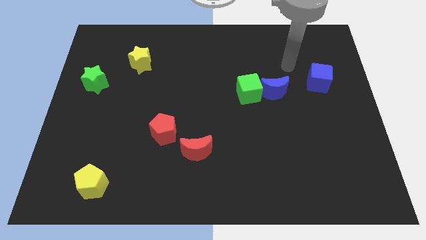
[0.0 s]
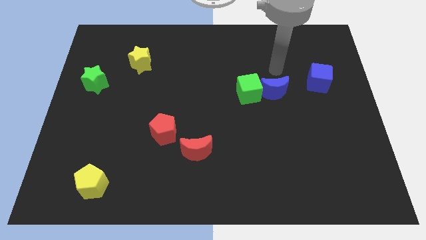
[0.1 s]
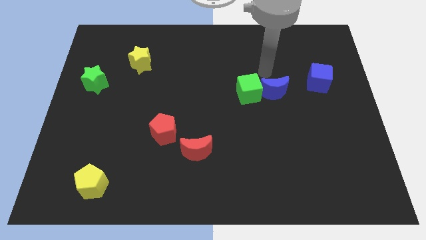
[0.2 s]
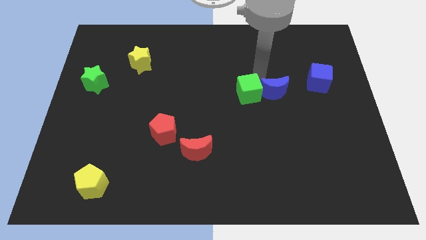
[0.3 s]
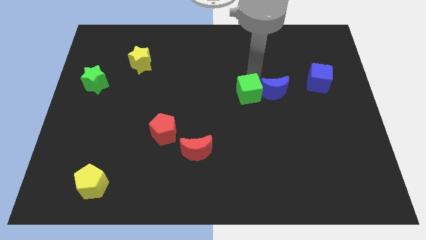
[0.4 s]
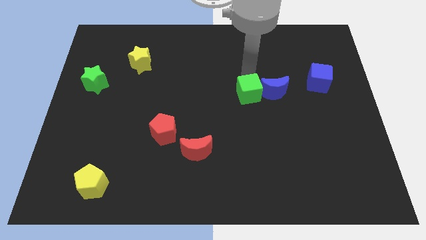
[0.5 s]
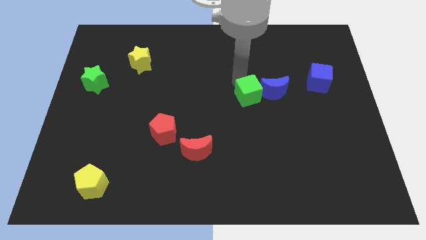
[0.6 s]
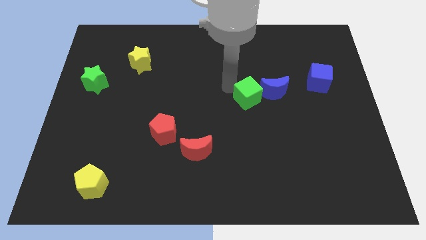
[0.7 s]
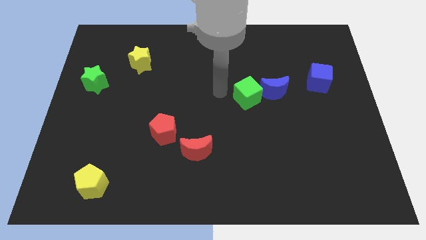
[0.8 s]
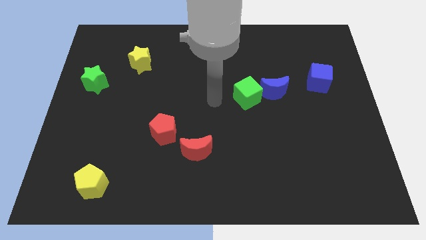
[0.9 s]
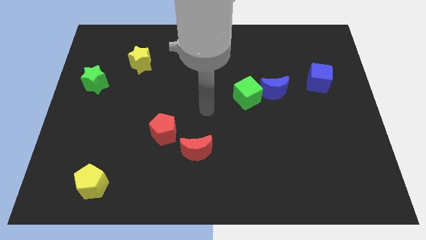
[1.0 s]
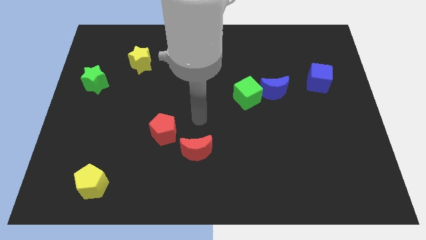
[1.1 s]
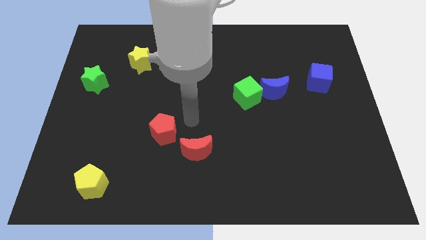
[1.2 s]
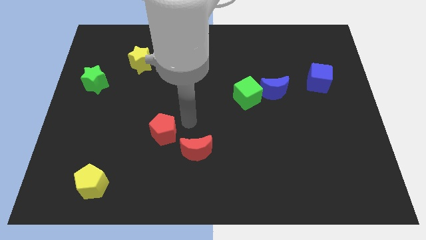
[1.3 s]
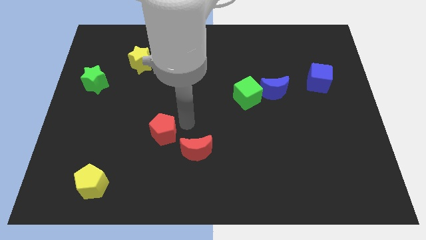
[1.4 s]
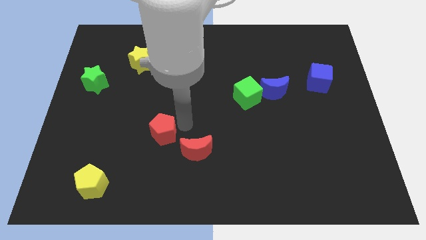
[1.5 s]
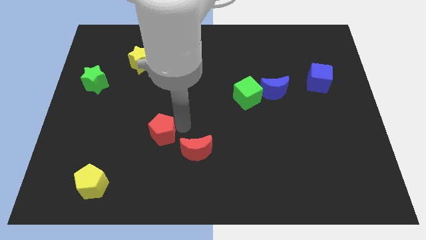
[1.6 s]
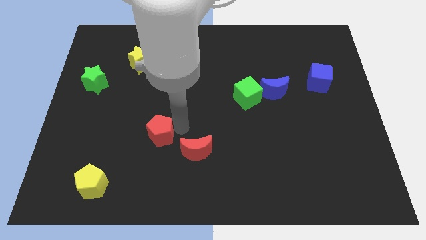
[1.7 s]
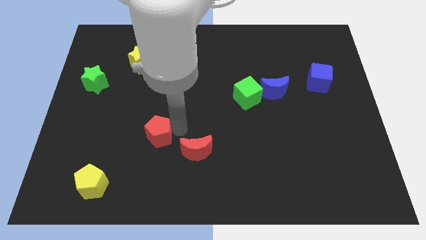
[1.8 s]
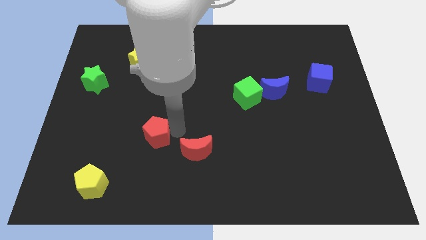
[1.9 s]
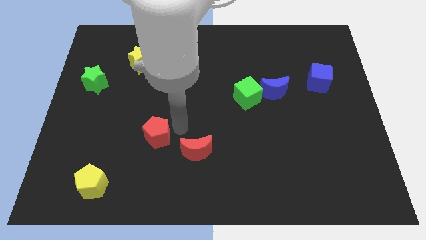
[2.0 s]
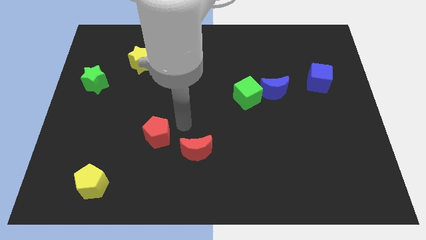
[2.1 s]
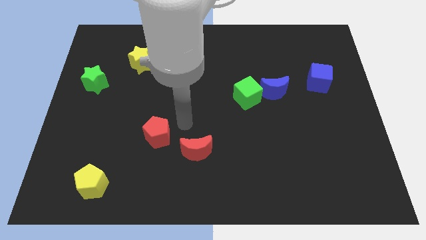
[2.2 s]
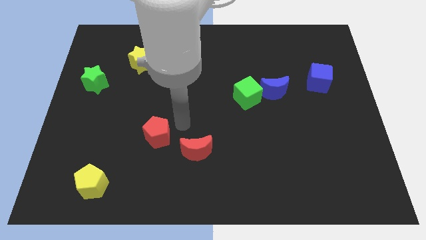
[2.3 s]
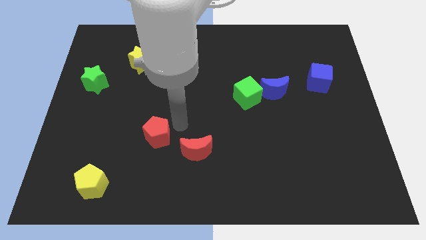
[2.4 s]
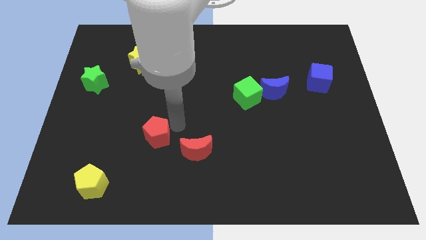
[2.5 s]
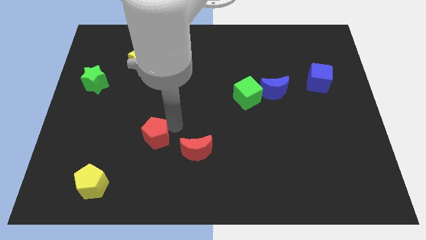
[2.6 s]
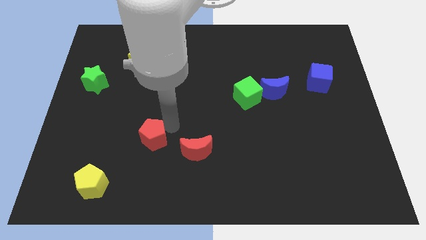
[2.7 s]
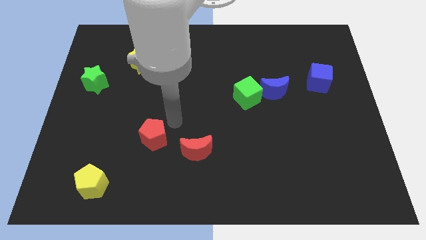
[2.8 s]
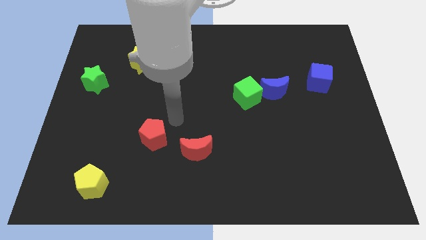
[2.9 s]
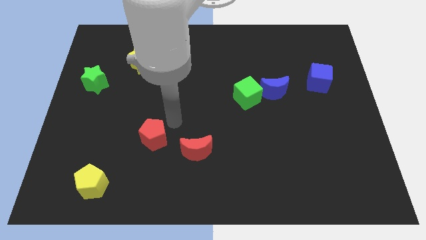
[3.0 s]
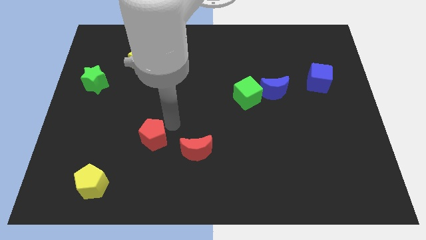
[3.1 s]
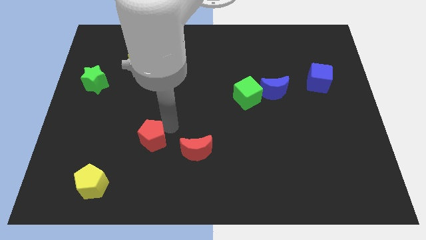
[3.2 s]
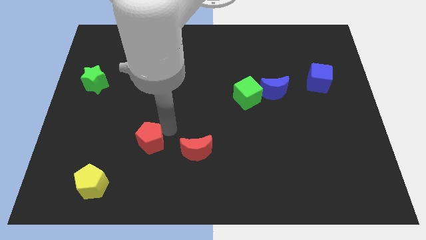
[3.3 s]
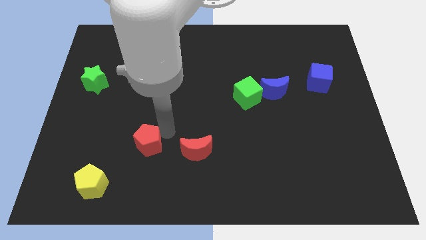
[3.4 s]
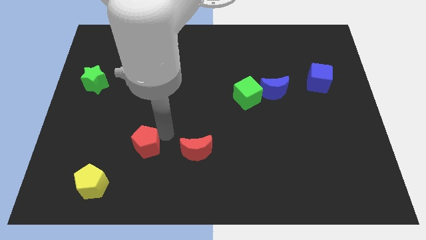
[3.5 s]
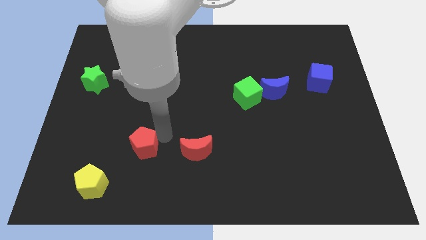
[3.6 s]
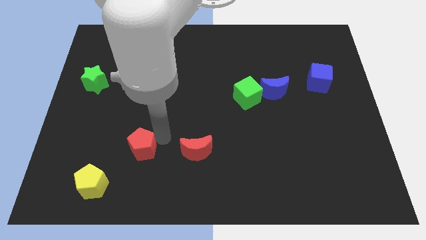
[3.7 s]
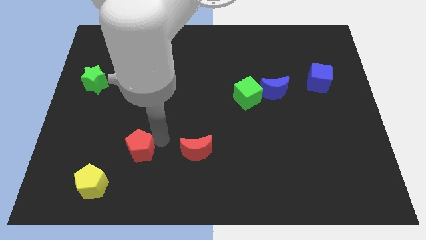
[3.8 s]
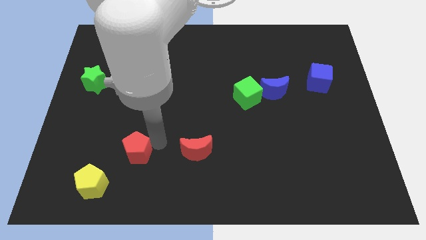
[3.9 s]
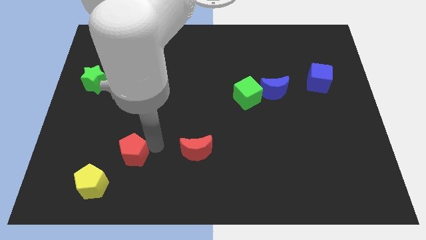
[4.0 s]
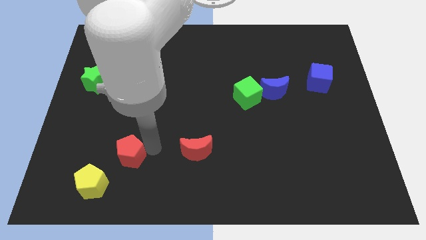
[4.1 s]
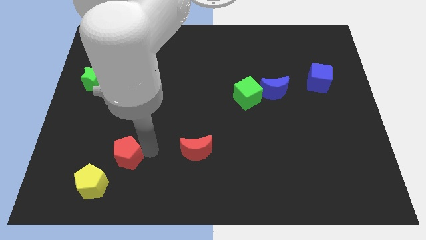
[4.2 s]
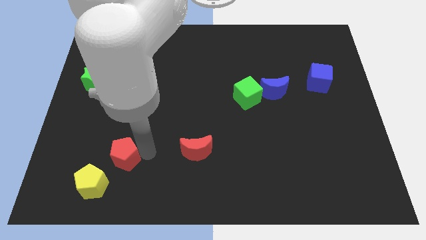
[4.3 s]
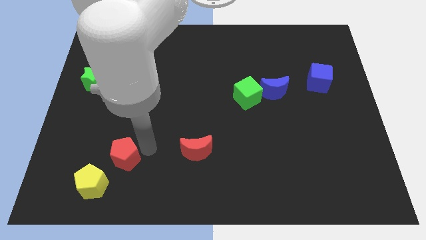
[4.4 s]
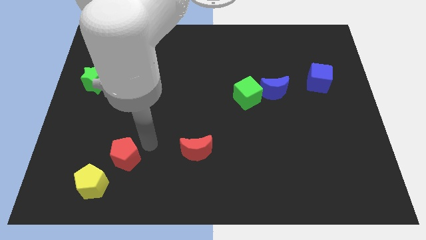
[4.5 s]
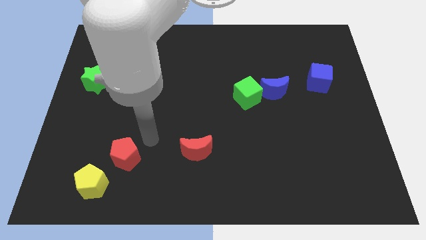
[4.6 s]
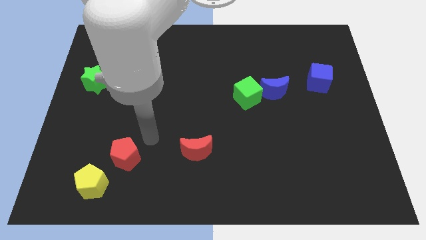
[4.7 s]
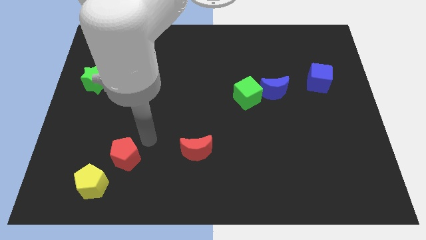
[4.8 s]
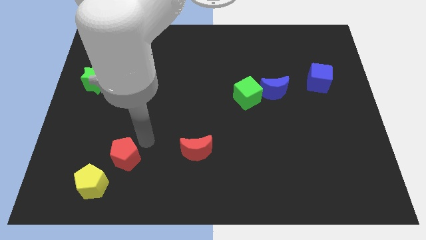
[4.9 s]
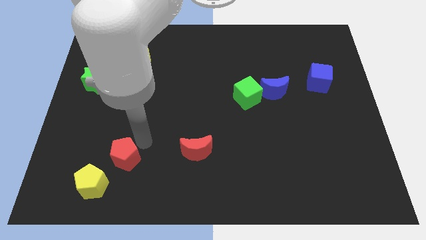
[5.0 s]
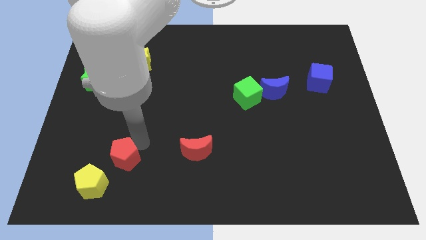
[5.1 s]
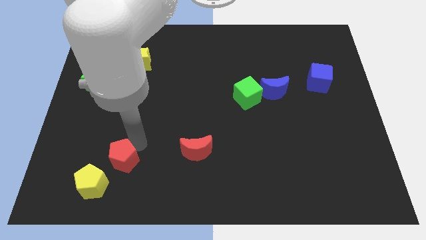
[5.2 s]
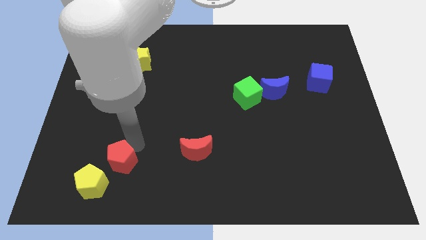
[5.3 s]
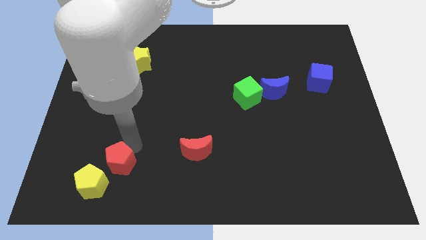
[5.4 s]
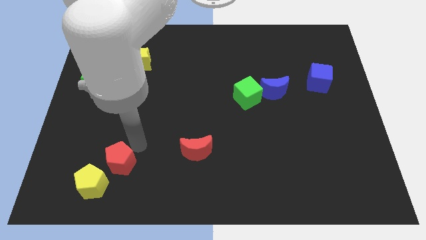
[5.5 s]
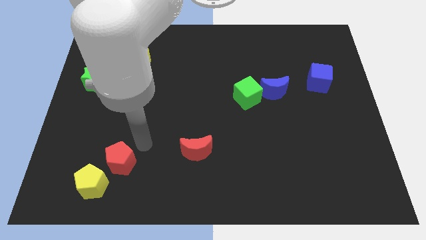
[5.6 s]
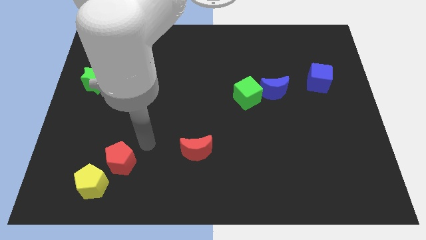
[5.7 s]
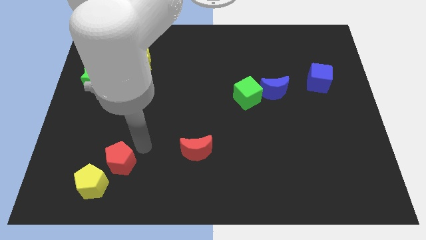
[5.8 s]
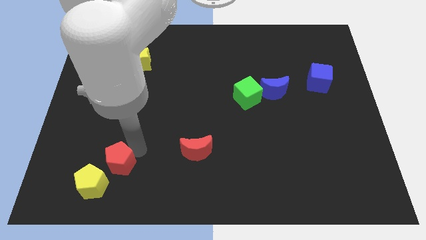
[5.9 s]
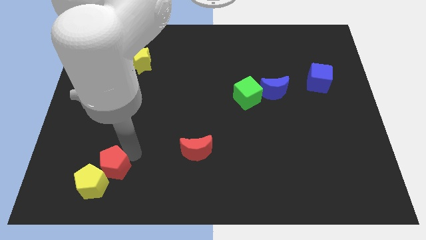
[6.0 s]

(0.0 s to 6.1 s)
slide the red pentagon to the yellow pentagon

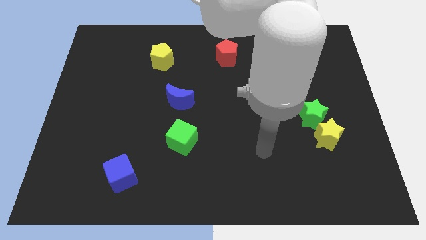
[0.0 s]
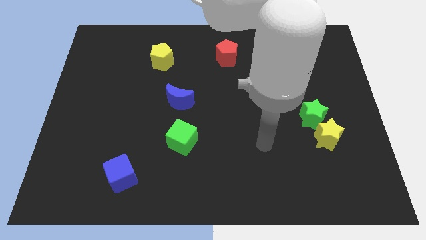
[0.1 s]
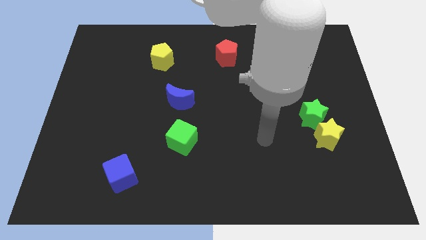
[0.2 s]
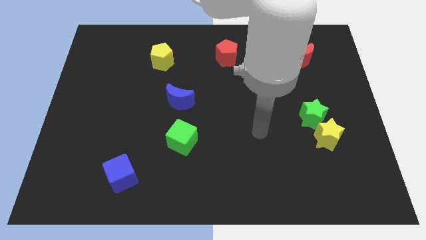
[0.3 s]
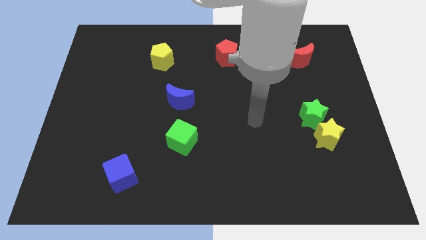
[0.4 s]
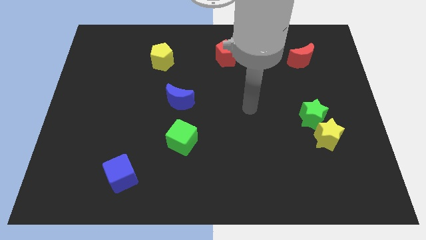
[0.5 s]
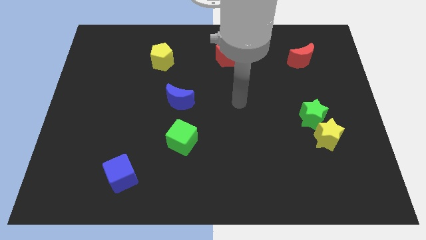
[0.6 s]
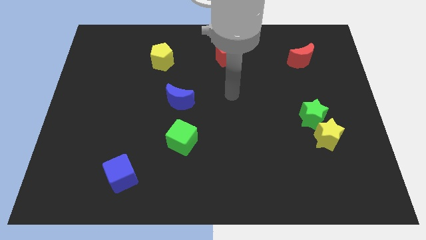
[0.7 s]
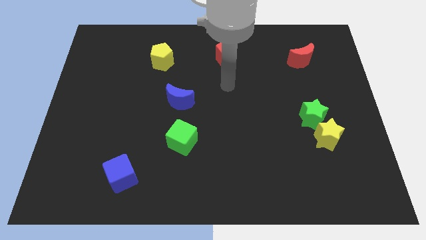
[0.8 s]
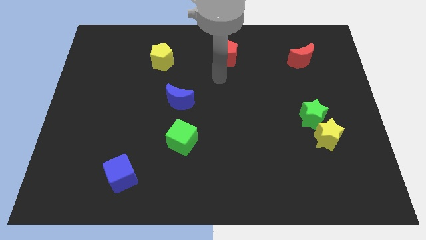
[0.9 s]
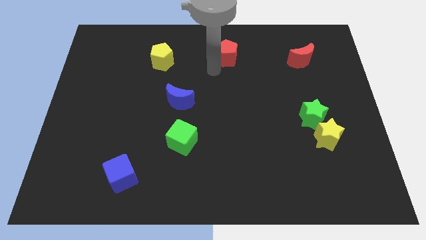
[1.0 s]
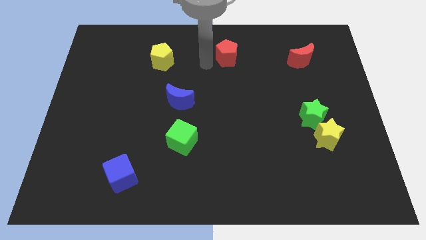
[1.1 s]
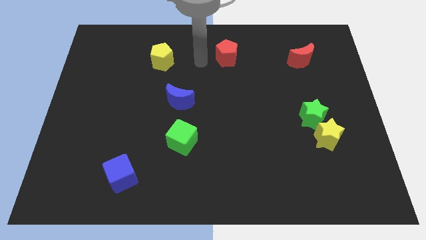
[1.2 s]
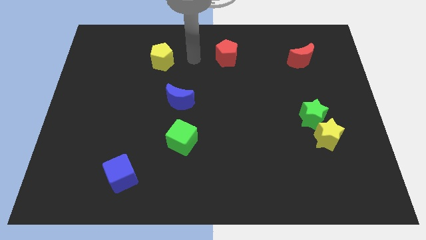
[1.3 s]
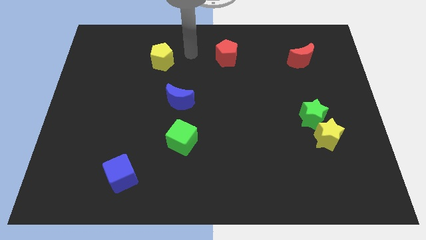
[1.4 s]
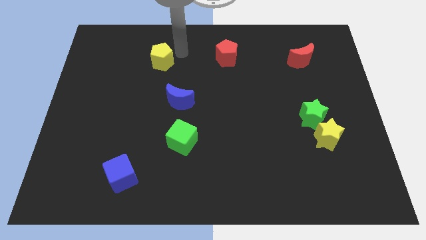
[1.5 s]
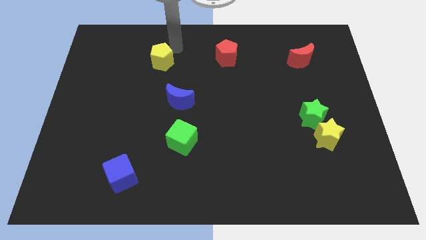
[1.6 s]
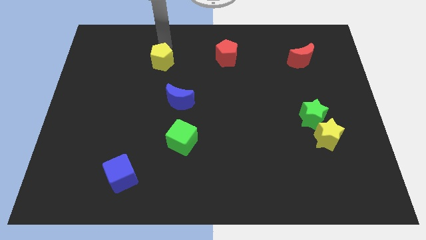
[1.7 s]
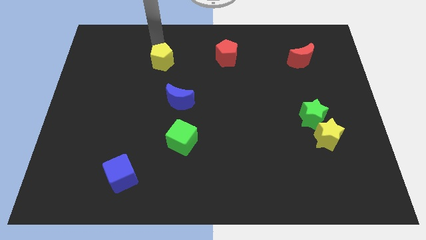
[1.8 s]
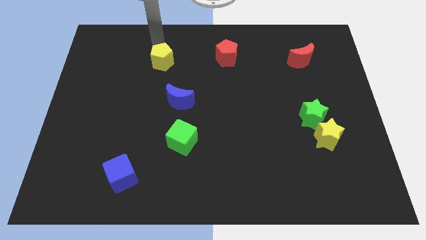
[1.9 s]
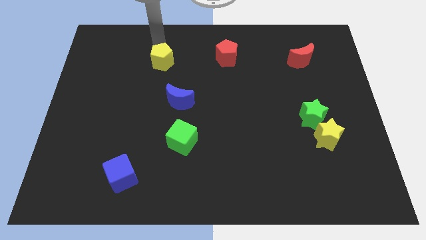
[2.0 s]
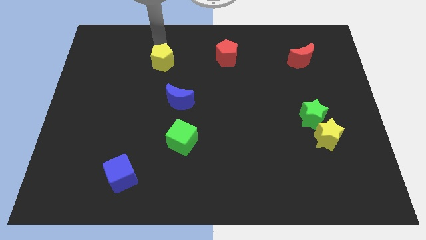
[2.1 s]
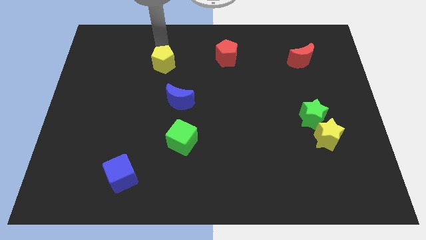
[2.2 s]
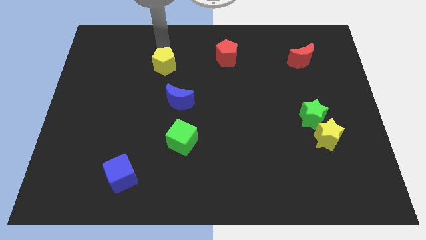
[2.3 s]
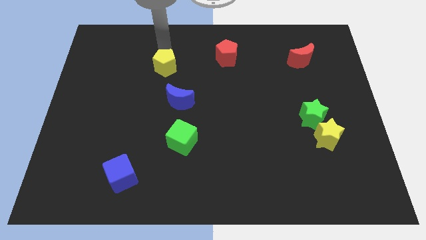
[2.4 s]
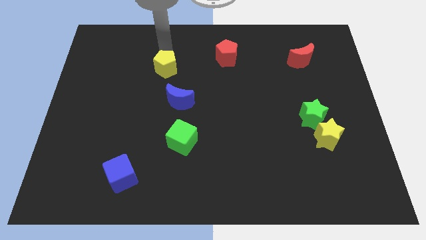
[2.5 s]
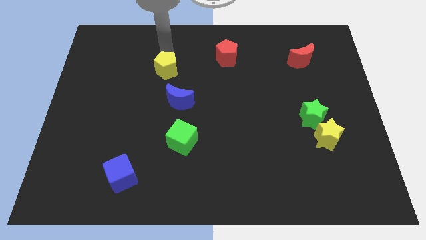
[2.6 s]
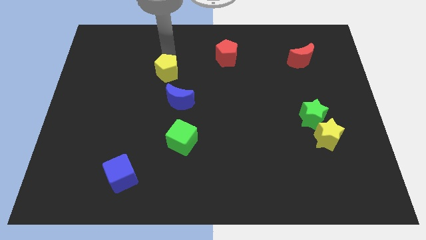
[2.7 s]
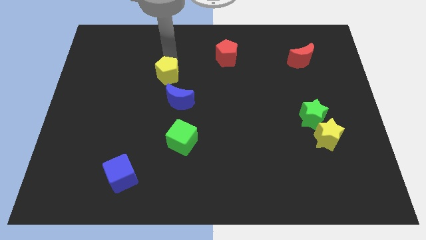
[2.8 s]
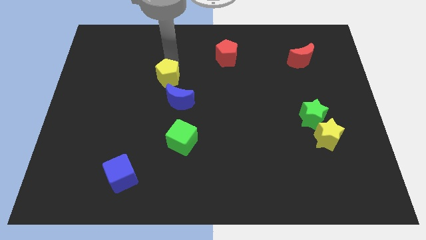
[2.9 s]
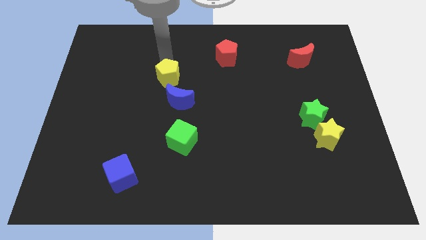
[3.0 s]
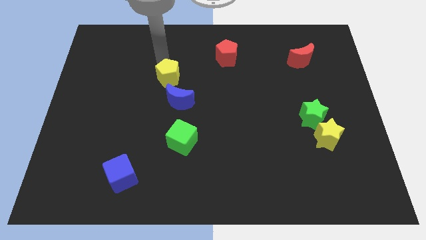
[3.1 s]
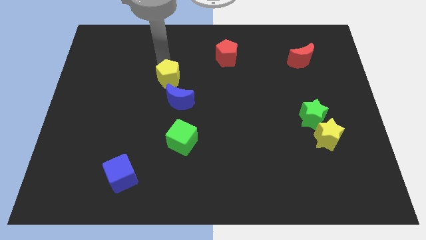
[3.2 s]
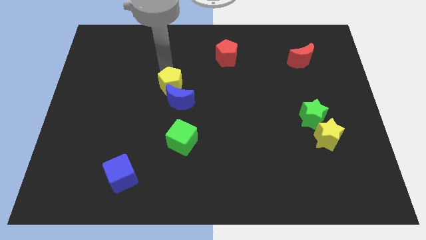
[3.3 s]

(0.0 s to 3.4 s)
push the yellow pentagon close to the blue moon
